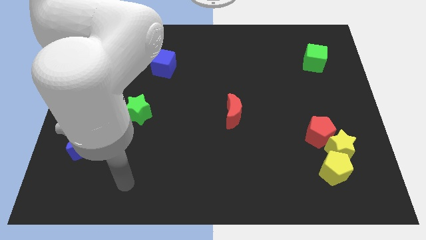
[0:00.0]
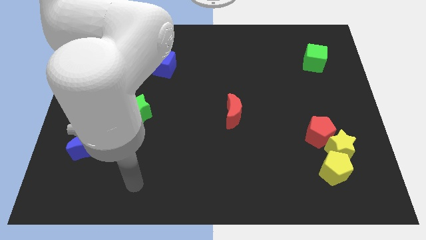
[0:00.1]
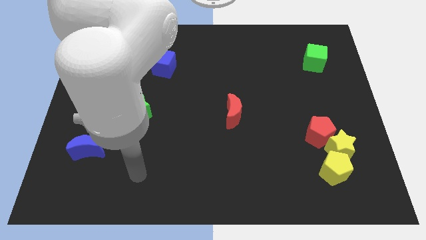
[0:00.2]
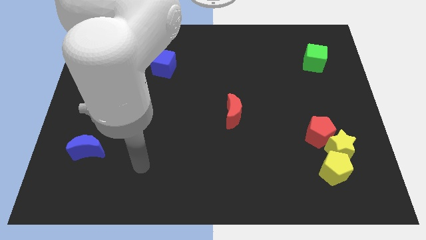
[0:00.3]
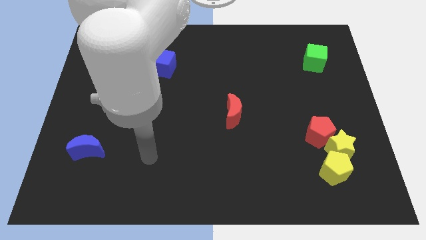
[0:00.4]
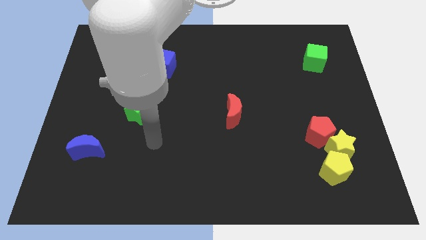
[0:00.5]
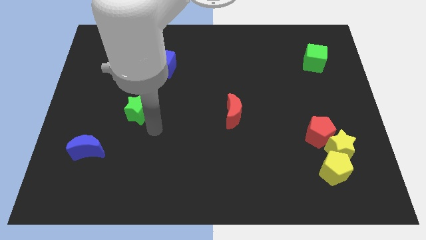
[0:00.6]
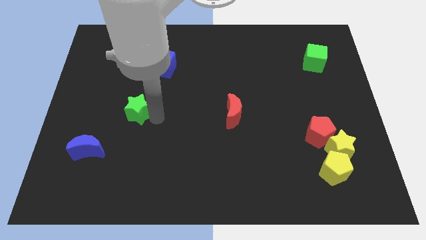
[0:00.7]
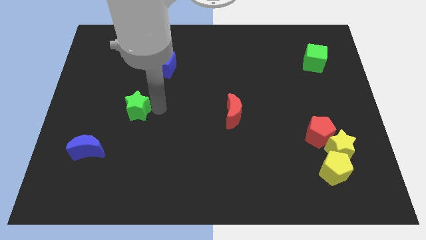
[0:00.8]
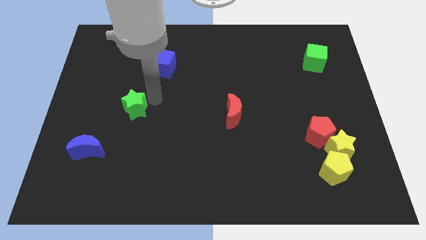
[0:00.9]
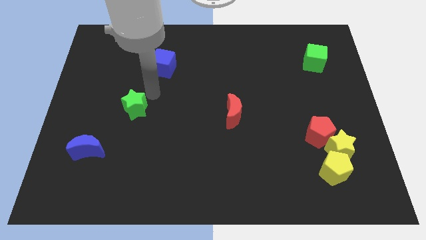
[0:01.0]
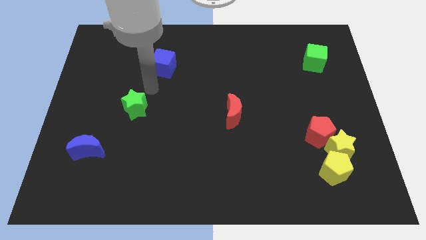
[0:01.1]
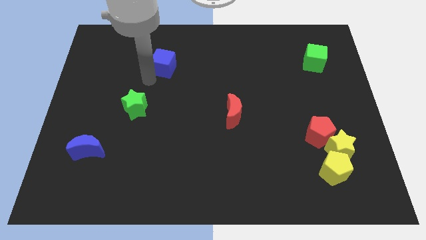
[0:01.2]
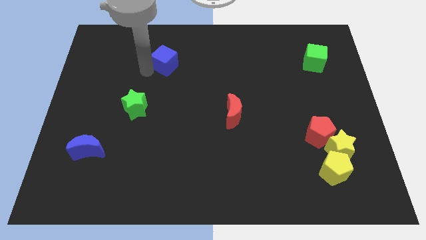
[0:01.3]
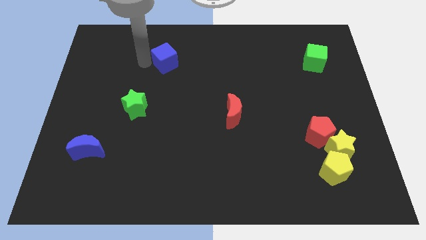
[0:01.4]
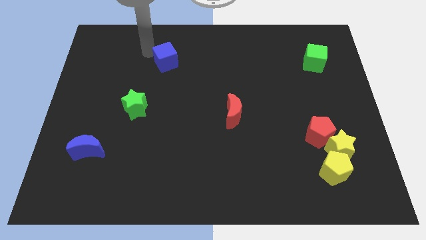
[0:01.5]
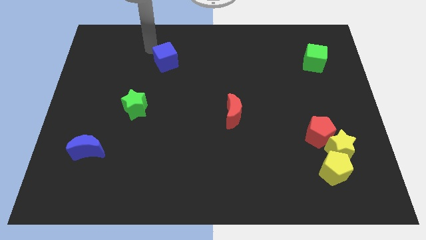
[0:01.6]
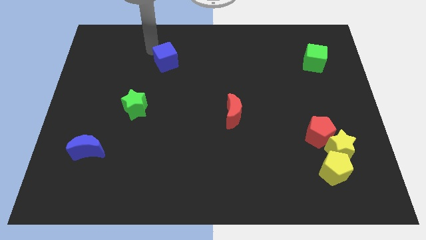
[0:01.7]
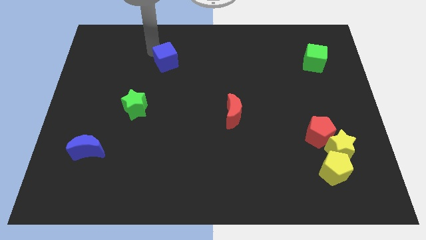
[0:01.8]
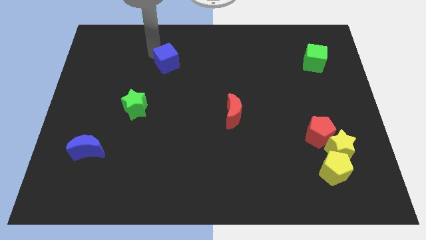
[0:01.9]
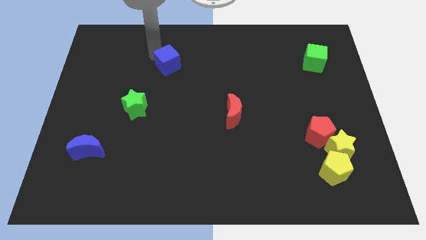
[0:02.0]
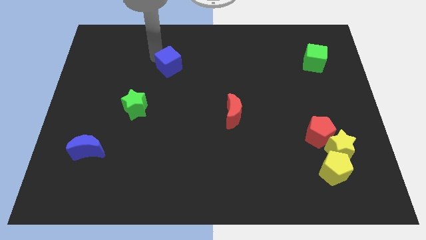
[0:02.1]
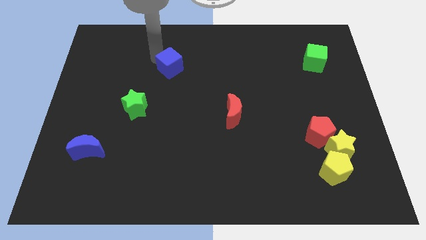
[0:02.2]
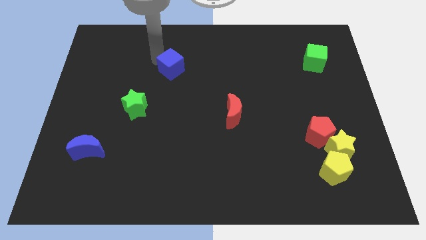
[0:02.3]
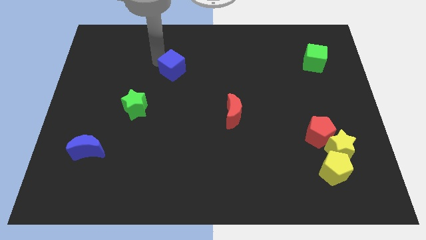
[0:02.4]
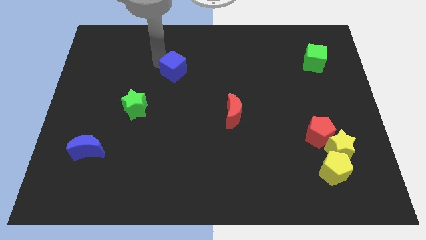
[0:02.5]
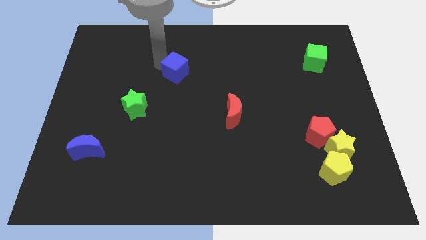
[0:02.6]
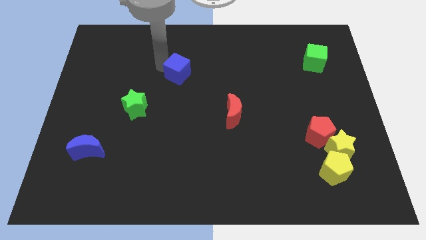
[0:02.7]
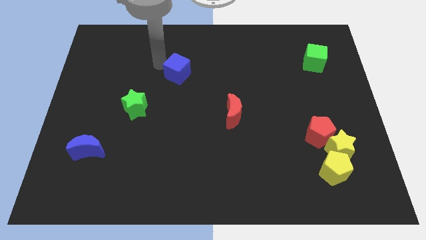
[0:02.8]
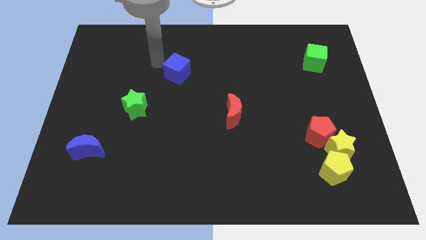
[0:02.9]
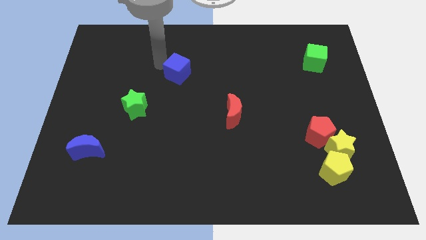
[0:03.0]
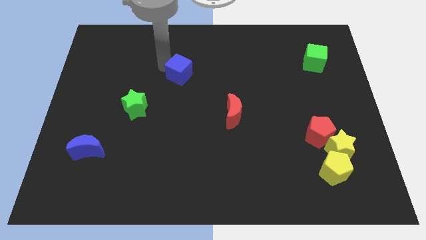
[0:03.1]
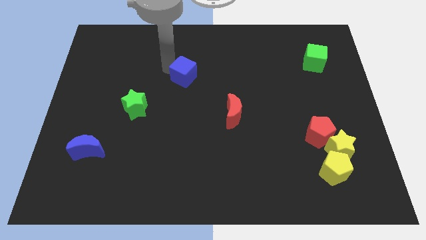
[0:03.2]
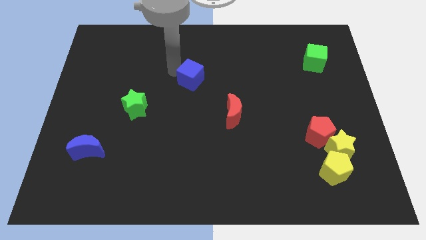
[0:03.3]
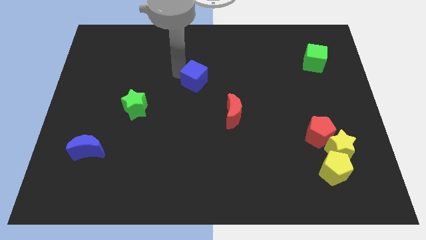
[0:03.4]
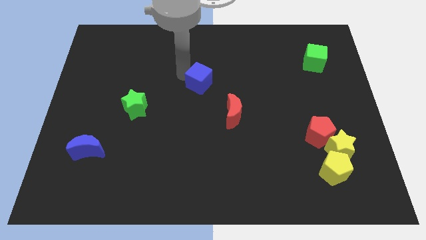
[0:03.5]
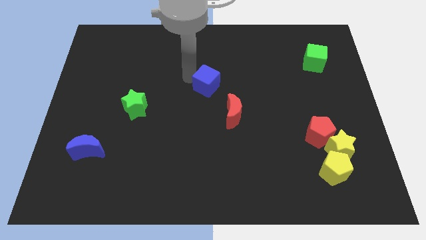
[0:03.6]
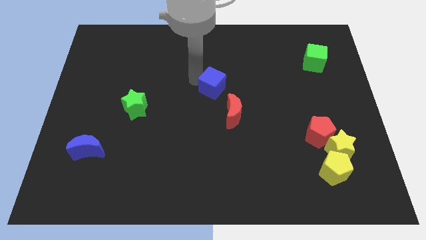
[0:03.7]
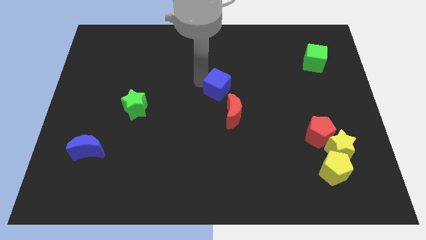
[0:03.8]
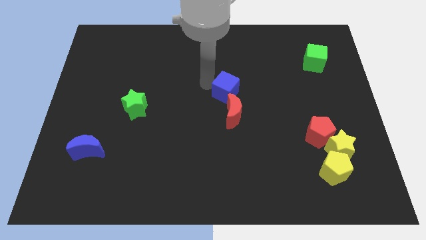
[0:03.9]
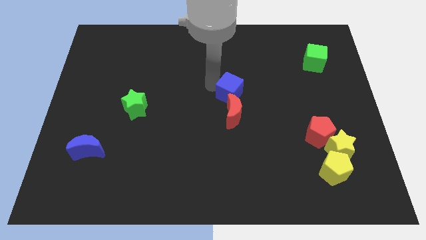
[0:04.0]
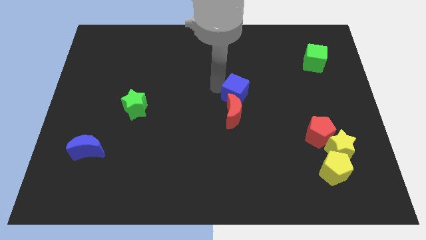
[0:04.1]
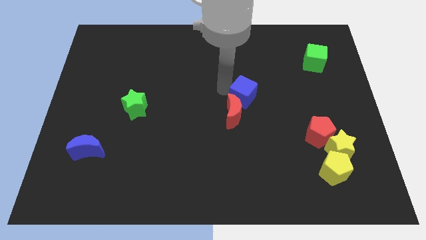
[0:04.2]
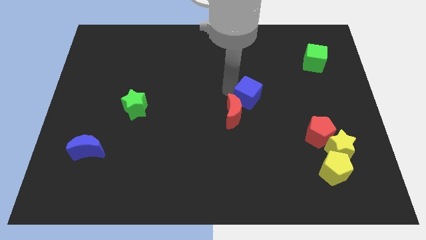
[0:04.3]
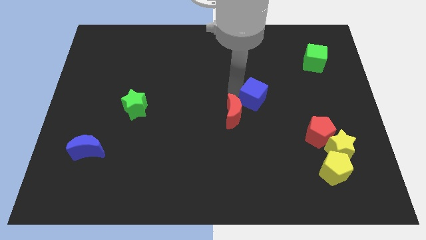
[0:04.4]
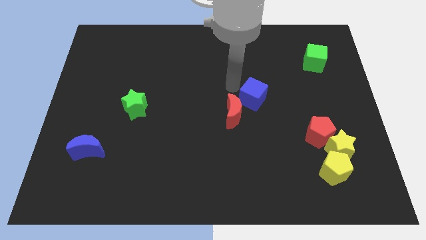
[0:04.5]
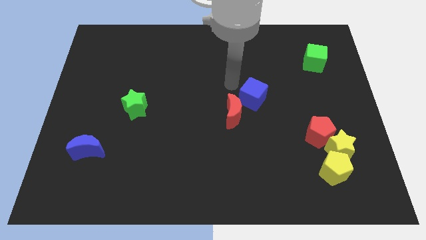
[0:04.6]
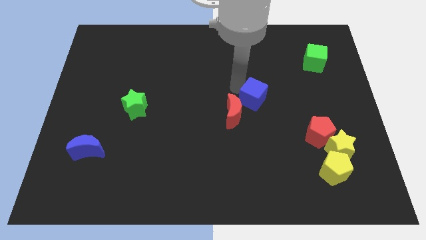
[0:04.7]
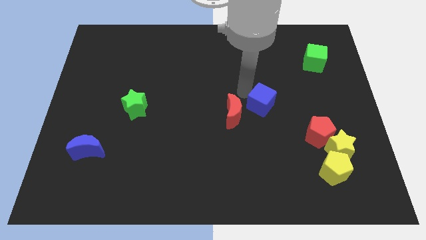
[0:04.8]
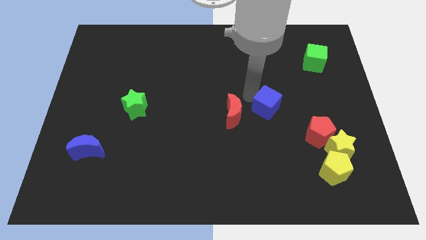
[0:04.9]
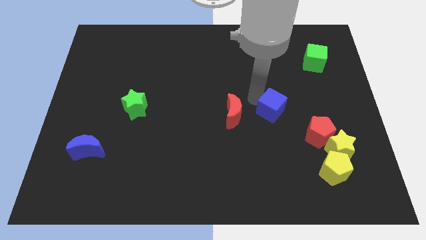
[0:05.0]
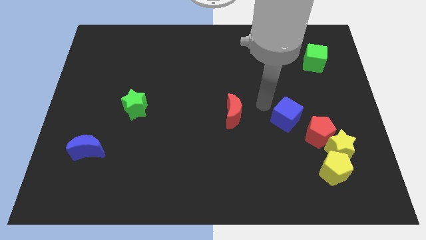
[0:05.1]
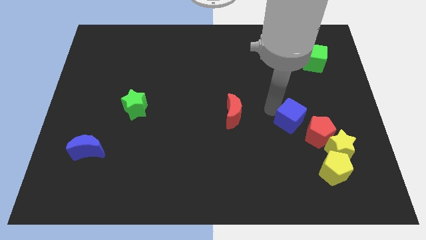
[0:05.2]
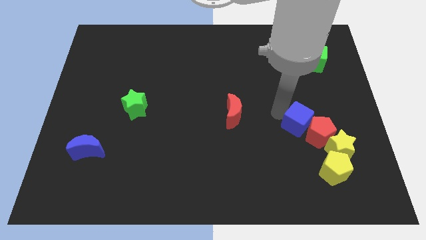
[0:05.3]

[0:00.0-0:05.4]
move the blue cube next to the red pentagon

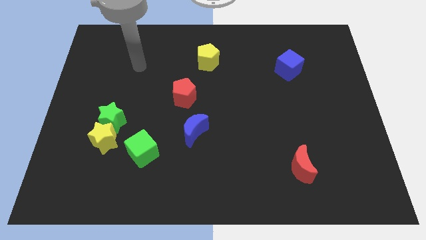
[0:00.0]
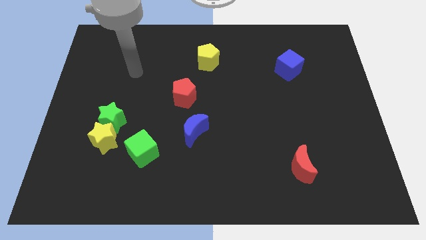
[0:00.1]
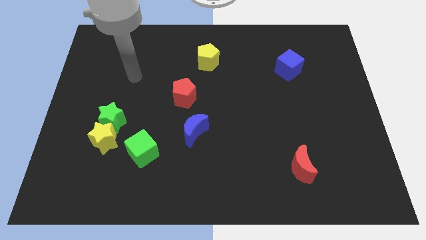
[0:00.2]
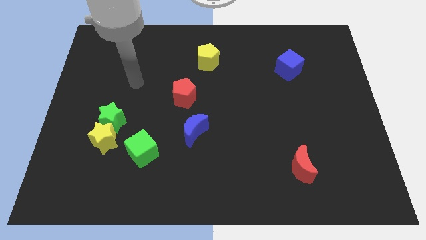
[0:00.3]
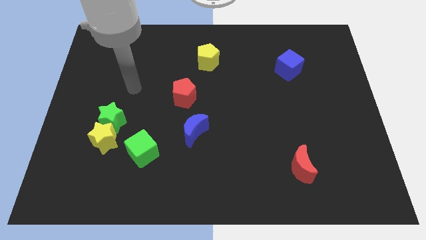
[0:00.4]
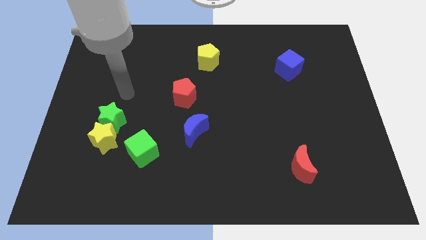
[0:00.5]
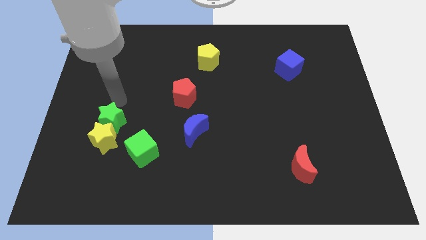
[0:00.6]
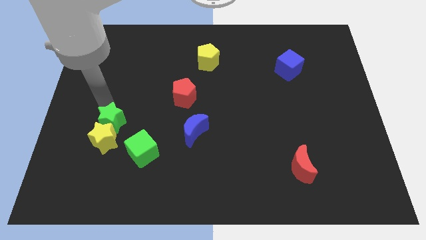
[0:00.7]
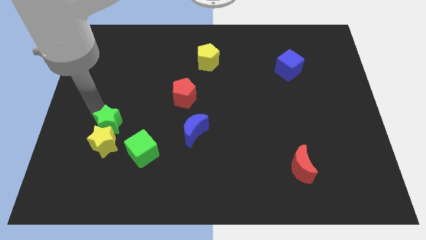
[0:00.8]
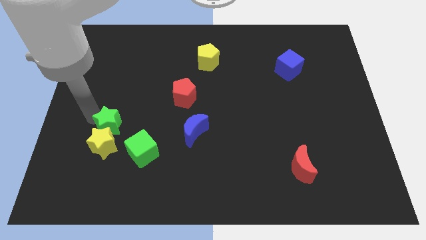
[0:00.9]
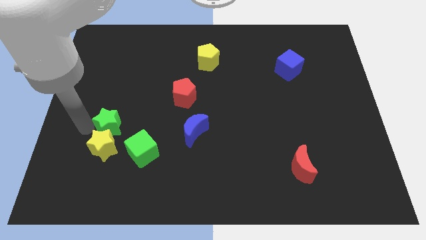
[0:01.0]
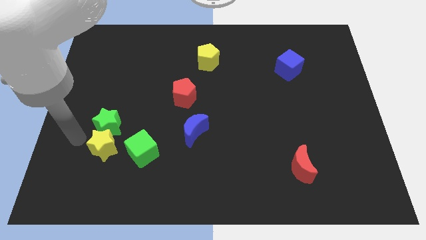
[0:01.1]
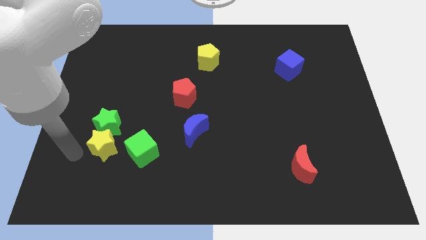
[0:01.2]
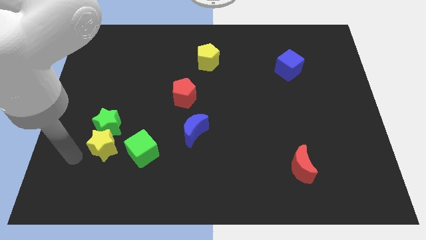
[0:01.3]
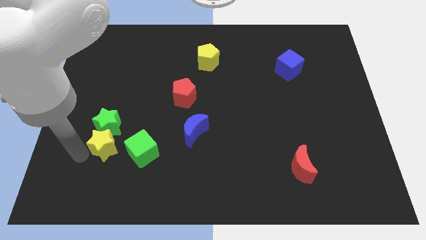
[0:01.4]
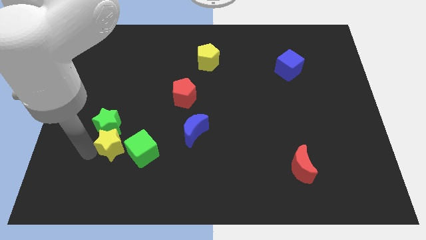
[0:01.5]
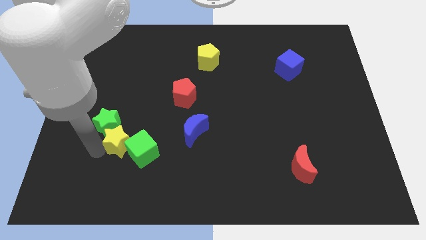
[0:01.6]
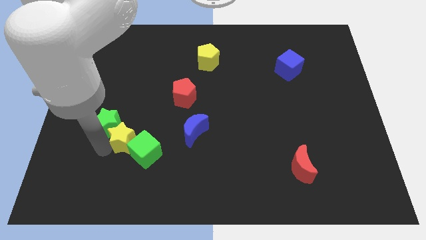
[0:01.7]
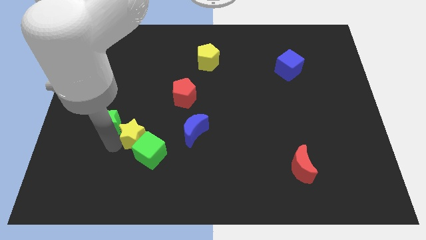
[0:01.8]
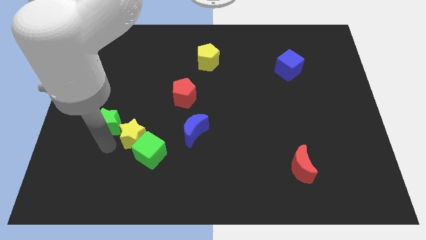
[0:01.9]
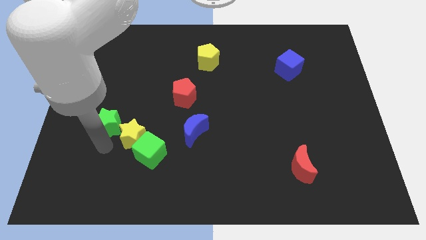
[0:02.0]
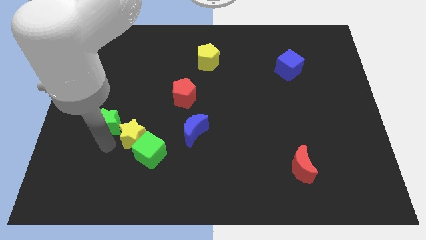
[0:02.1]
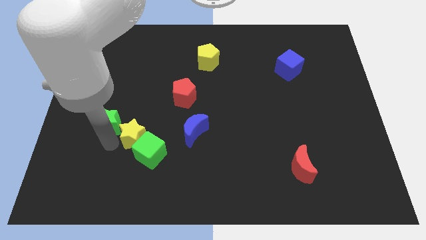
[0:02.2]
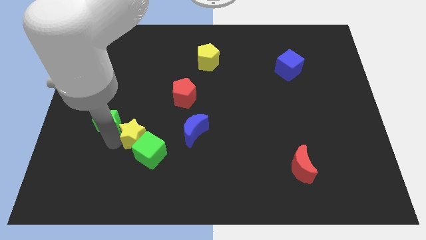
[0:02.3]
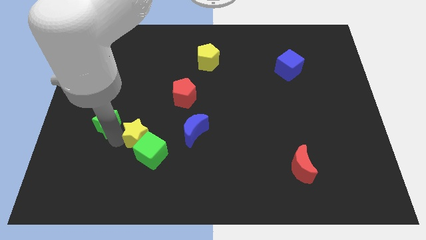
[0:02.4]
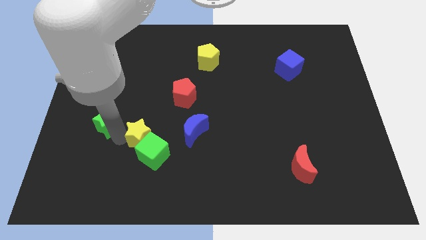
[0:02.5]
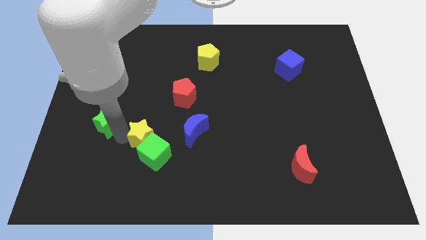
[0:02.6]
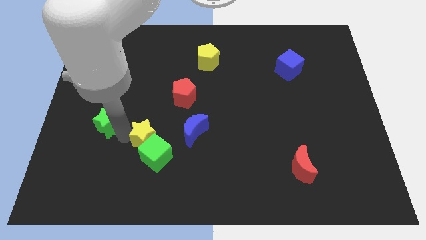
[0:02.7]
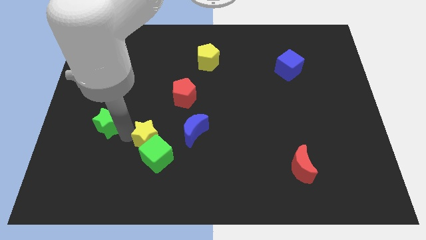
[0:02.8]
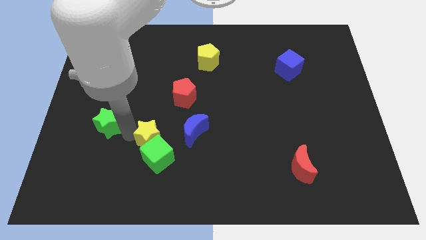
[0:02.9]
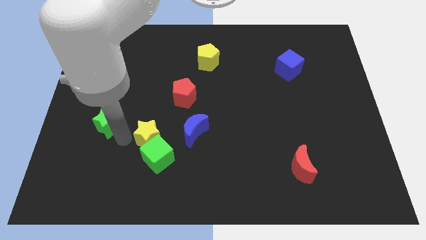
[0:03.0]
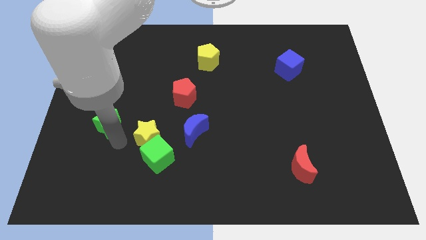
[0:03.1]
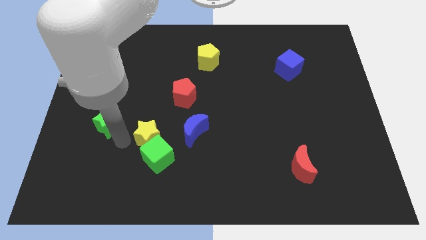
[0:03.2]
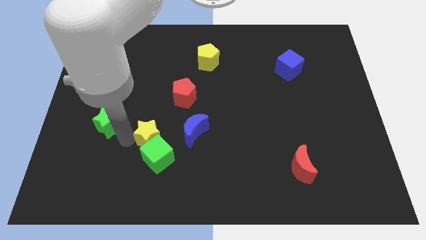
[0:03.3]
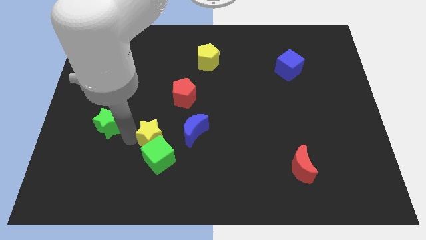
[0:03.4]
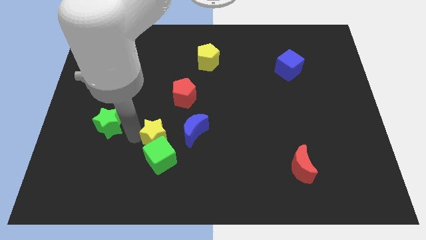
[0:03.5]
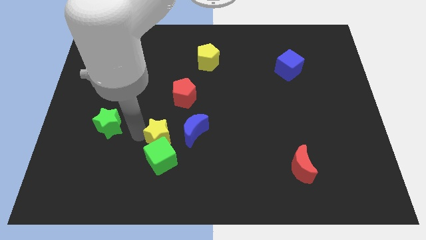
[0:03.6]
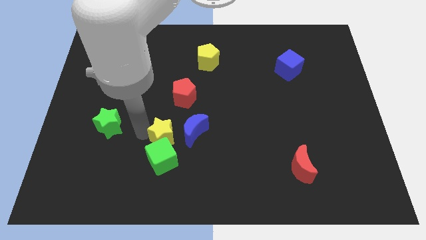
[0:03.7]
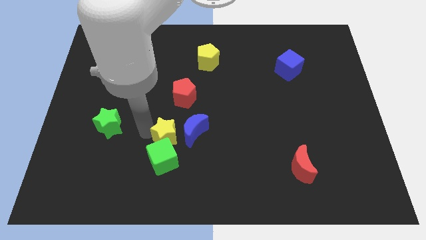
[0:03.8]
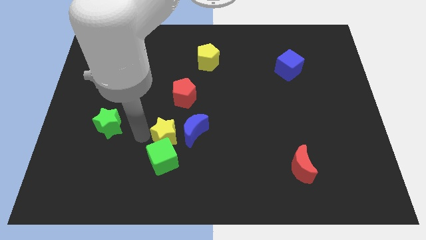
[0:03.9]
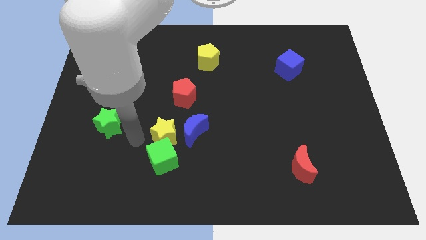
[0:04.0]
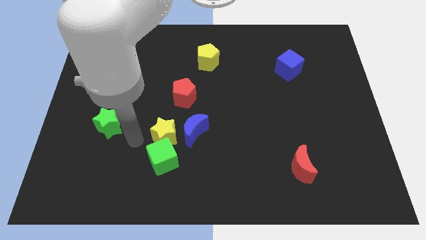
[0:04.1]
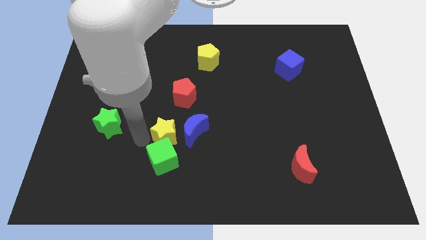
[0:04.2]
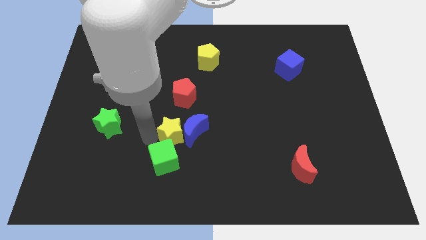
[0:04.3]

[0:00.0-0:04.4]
push the yellow star next to the blue moon
